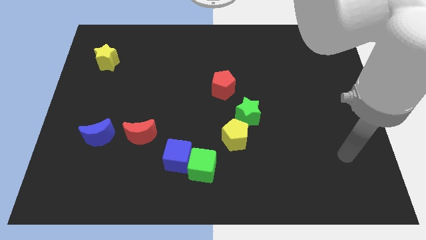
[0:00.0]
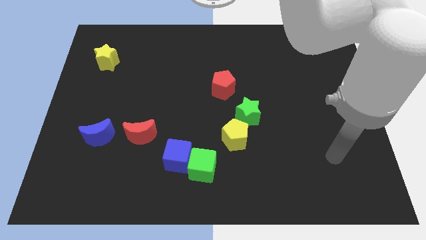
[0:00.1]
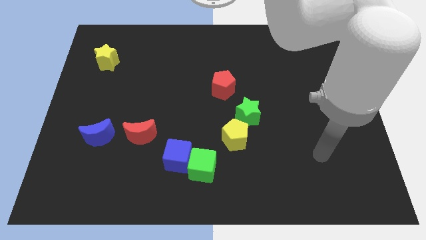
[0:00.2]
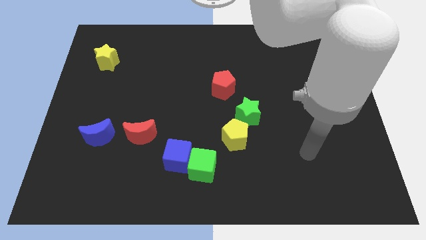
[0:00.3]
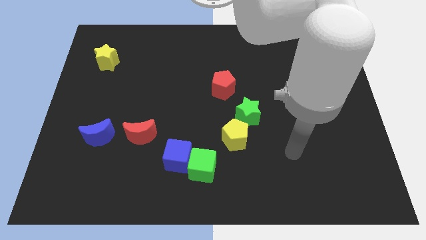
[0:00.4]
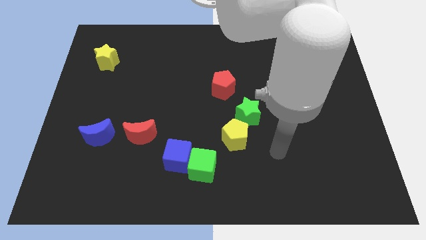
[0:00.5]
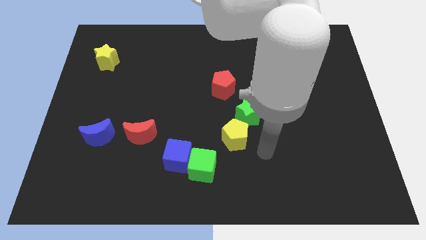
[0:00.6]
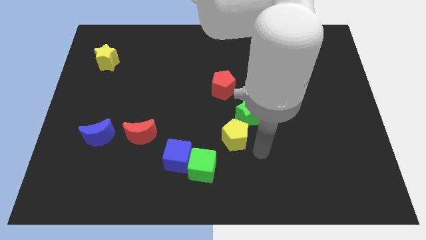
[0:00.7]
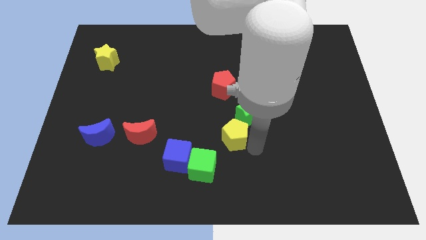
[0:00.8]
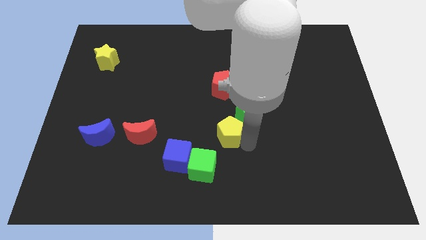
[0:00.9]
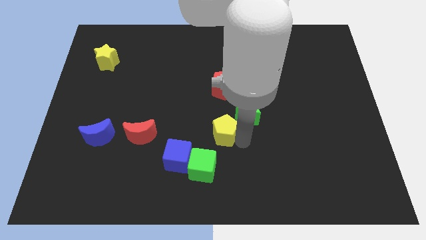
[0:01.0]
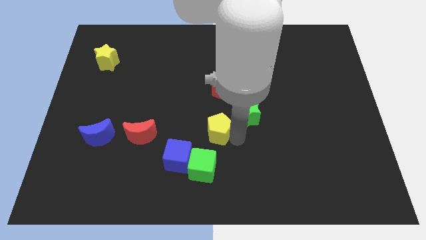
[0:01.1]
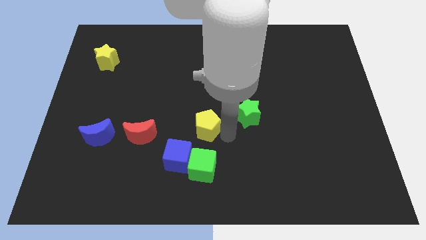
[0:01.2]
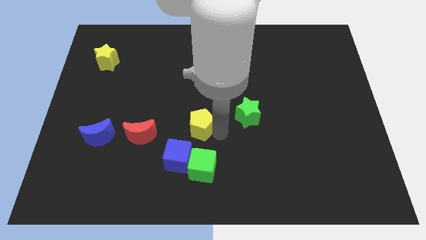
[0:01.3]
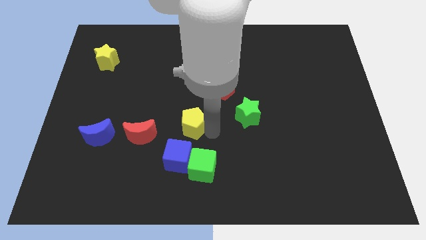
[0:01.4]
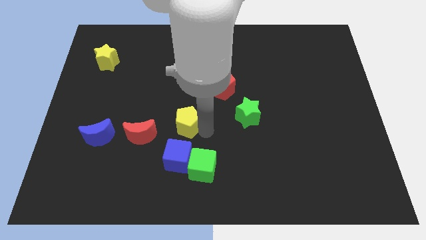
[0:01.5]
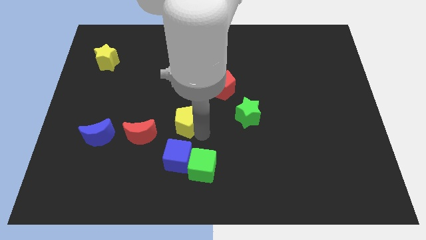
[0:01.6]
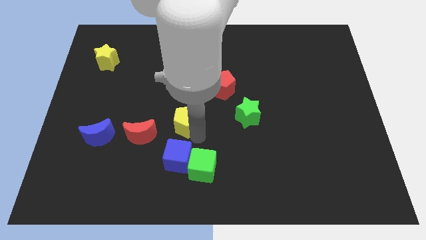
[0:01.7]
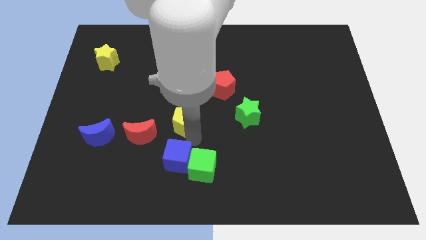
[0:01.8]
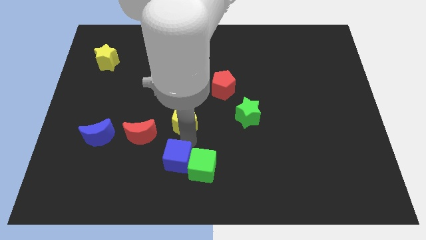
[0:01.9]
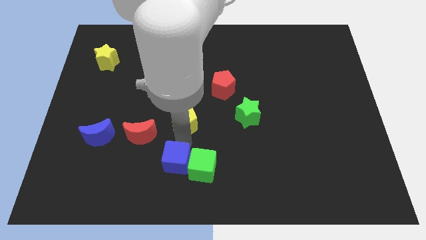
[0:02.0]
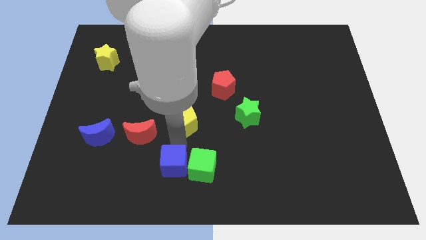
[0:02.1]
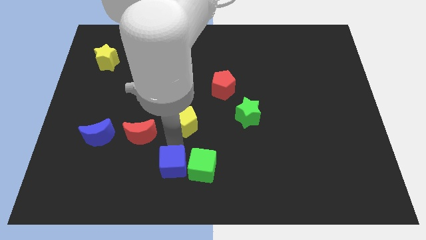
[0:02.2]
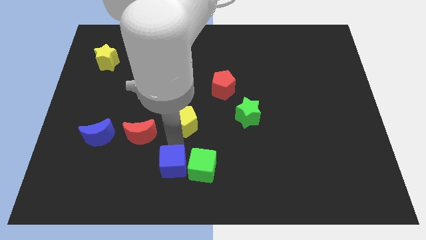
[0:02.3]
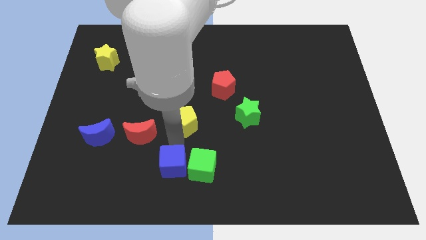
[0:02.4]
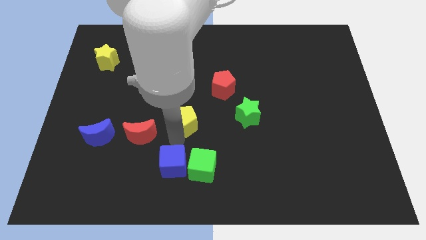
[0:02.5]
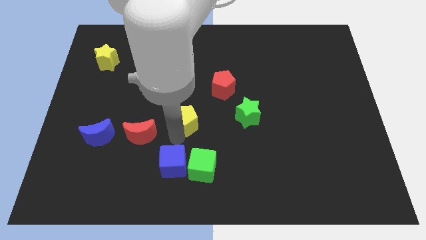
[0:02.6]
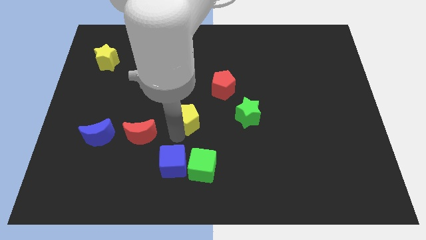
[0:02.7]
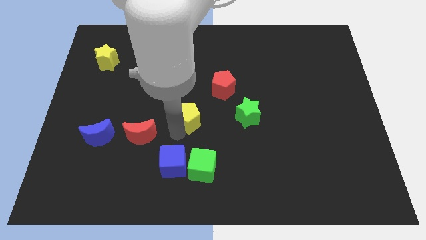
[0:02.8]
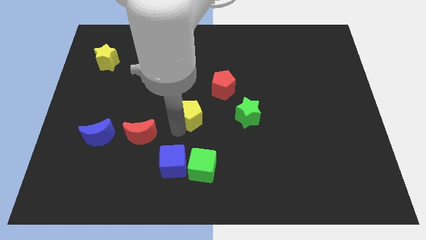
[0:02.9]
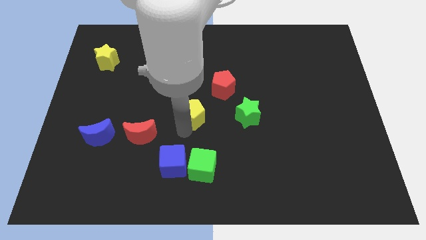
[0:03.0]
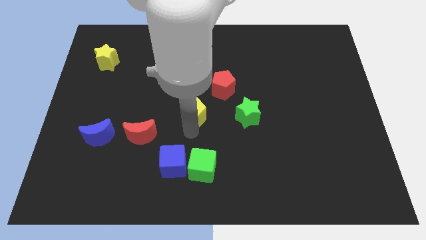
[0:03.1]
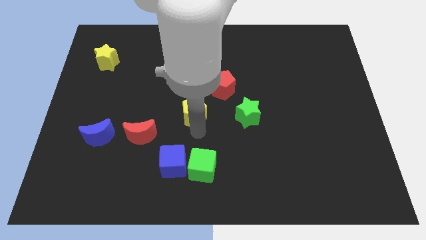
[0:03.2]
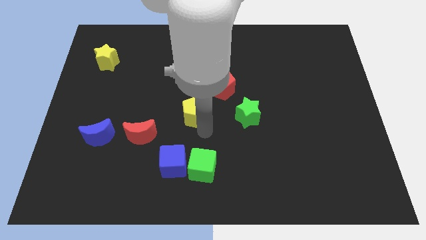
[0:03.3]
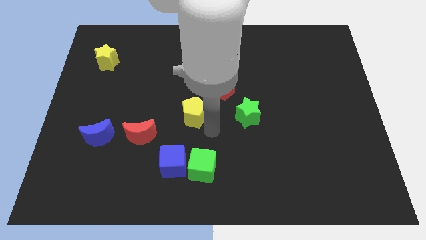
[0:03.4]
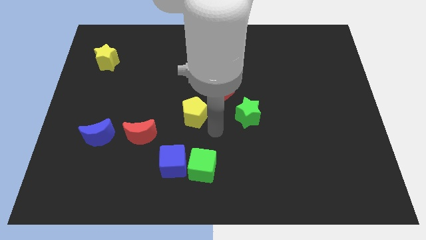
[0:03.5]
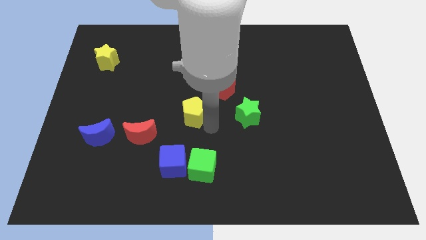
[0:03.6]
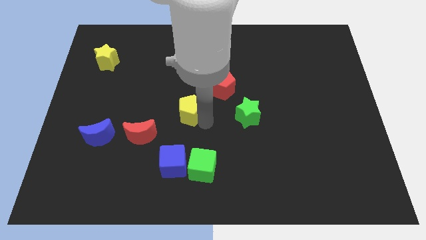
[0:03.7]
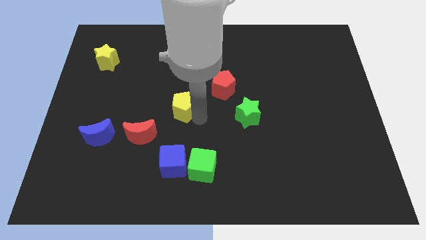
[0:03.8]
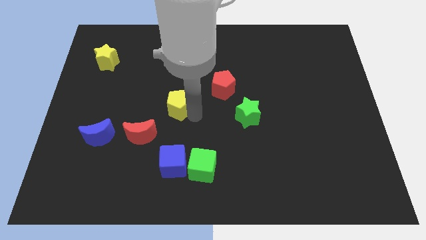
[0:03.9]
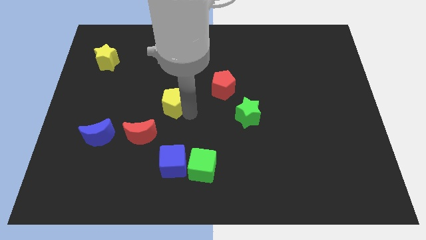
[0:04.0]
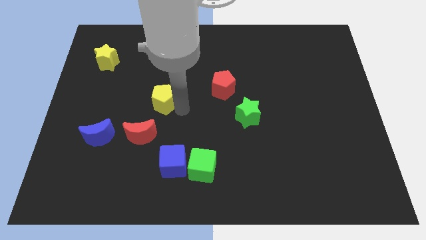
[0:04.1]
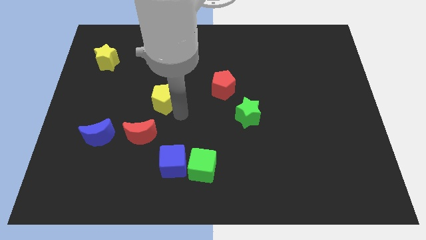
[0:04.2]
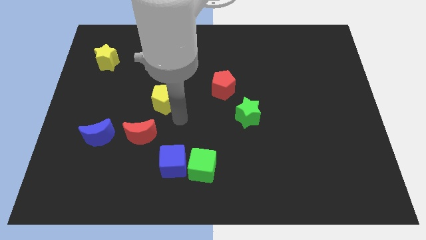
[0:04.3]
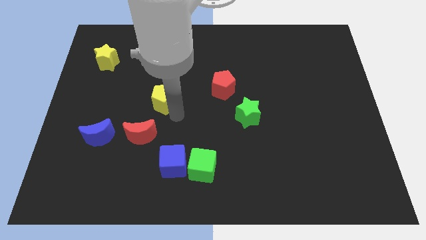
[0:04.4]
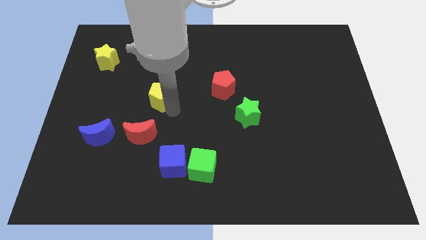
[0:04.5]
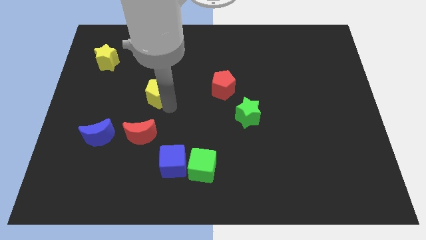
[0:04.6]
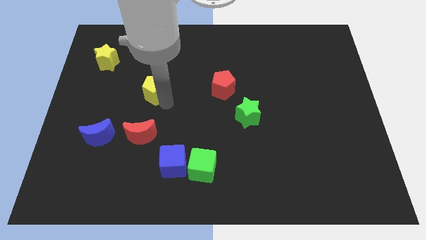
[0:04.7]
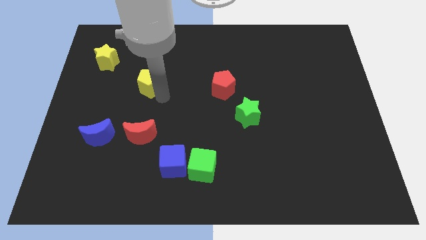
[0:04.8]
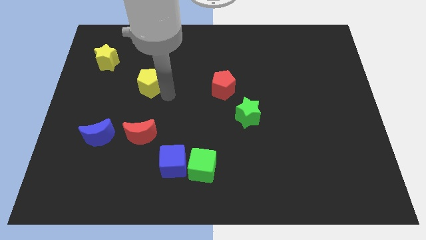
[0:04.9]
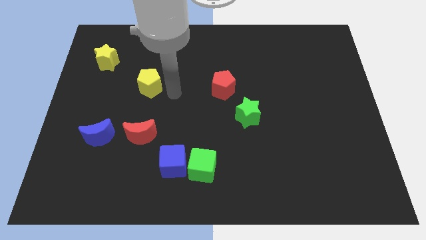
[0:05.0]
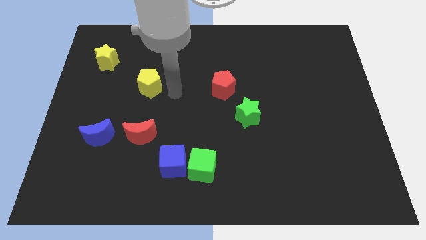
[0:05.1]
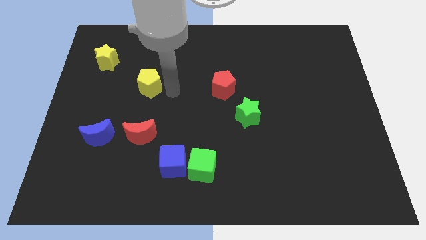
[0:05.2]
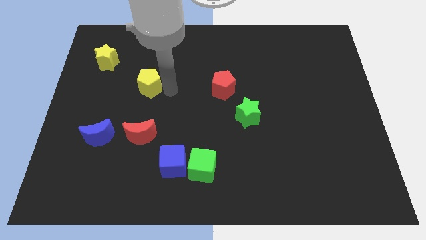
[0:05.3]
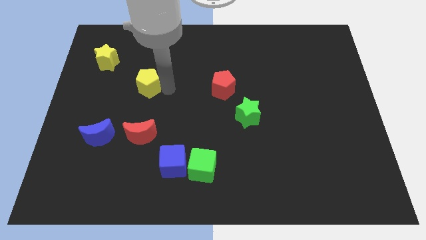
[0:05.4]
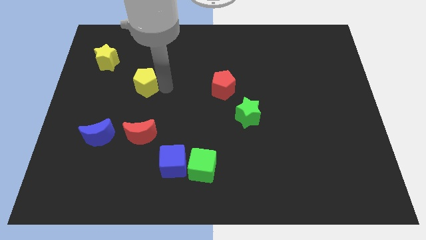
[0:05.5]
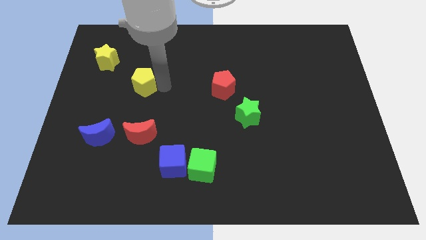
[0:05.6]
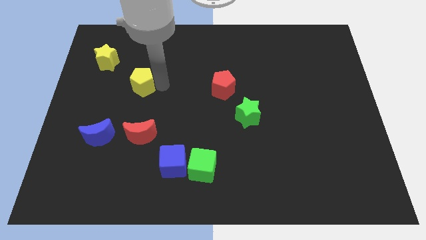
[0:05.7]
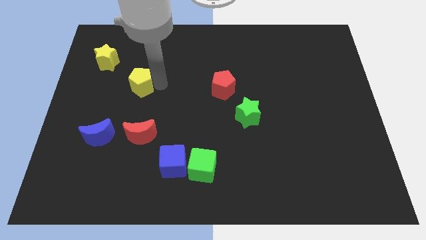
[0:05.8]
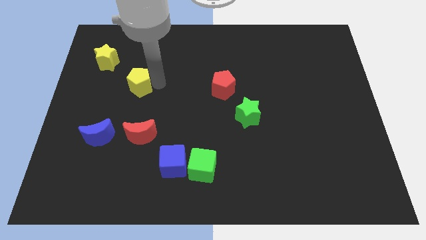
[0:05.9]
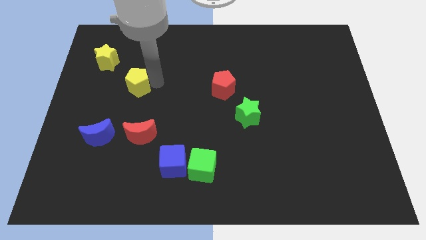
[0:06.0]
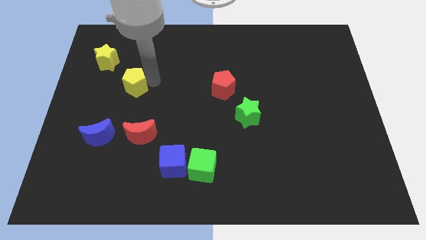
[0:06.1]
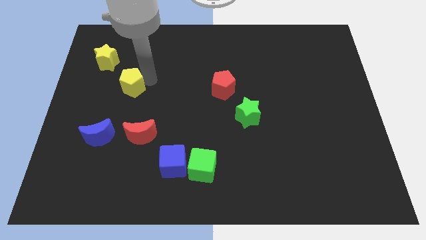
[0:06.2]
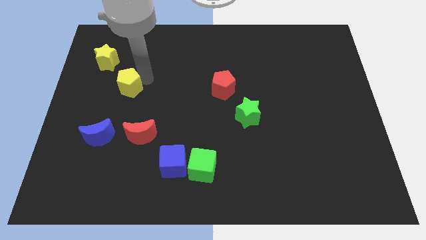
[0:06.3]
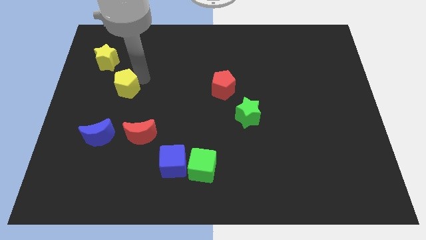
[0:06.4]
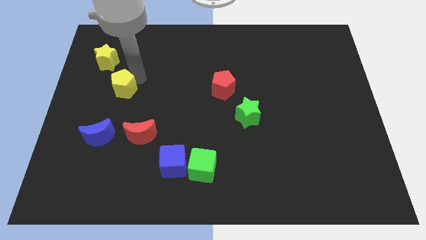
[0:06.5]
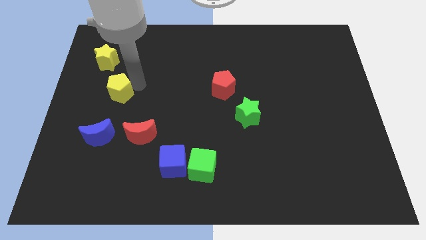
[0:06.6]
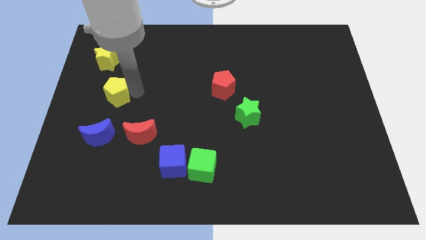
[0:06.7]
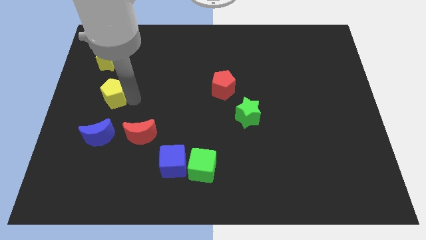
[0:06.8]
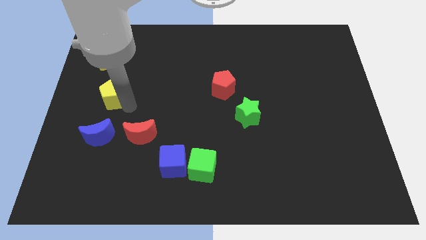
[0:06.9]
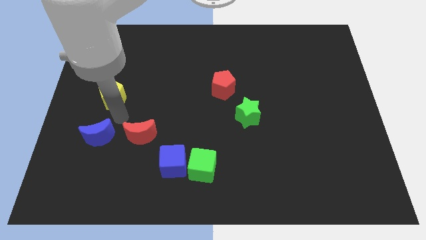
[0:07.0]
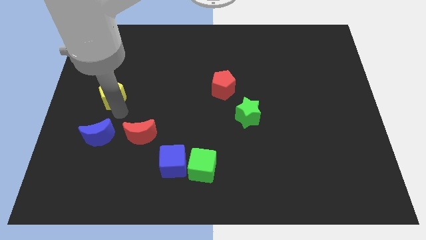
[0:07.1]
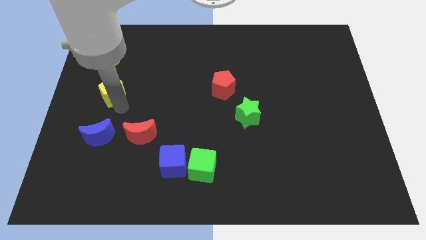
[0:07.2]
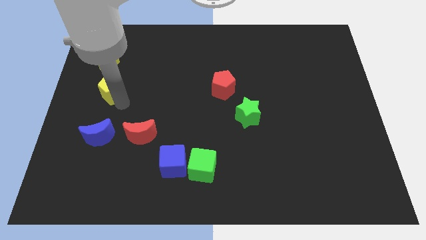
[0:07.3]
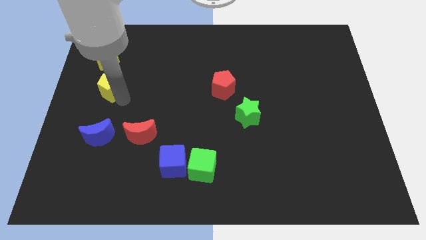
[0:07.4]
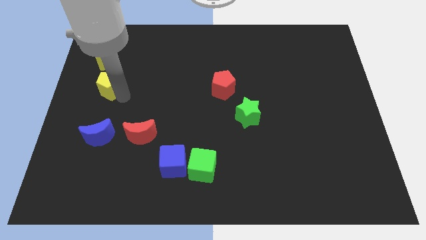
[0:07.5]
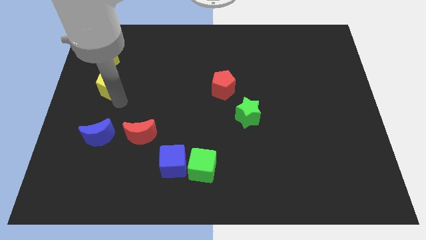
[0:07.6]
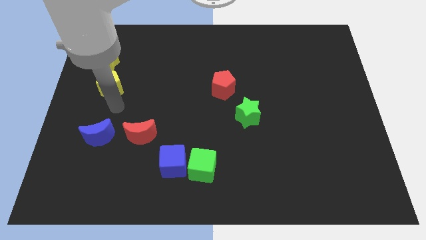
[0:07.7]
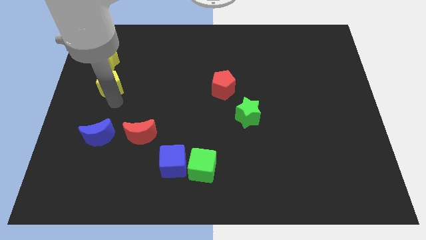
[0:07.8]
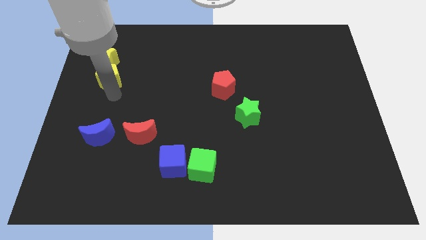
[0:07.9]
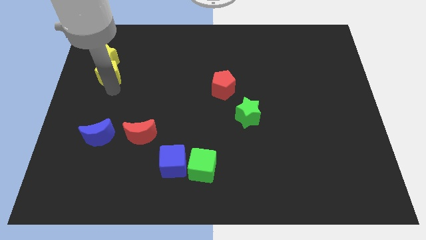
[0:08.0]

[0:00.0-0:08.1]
push the yellow pentagon to the yellow star
